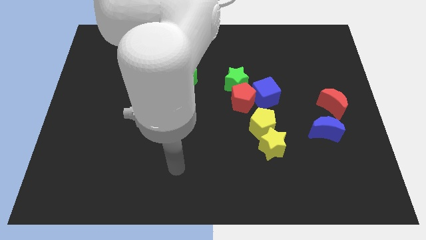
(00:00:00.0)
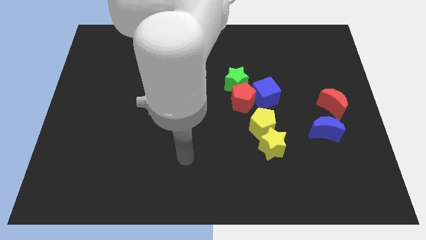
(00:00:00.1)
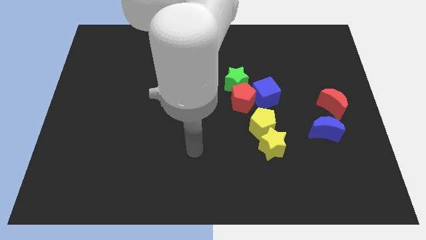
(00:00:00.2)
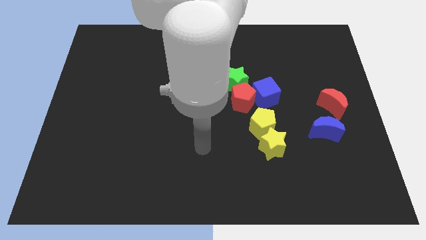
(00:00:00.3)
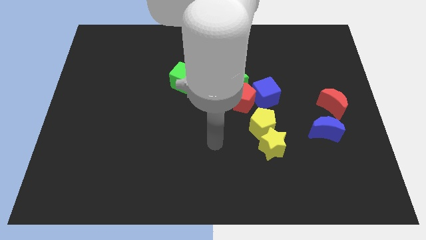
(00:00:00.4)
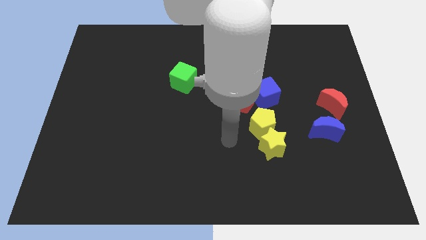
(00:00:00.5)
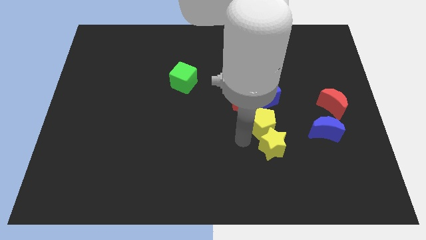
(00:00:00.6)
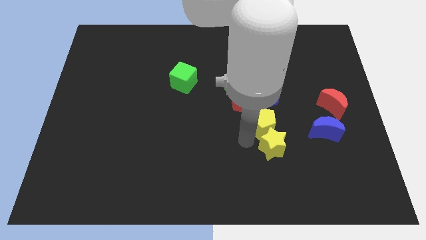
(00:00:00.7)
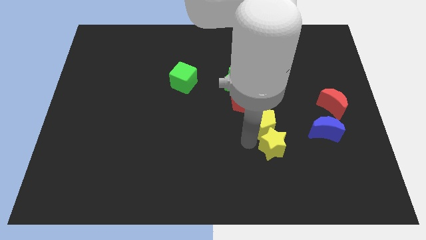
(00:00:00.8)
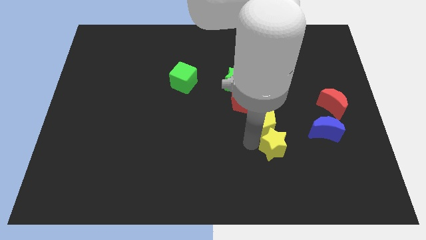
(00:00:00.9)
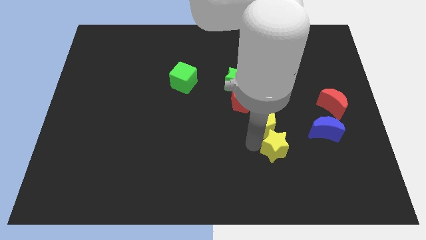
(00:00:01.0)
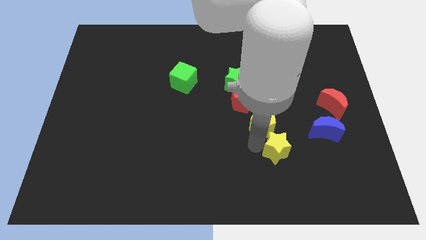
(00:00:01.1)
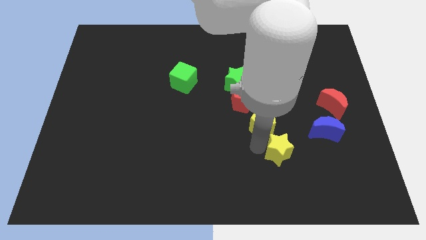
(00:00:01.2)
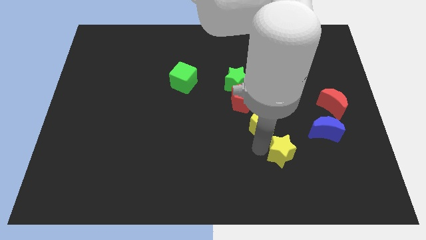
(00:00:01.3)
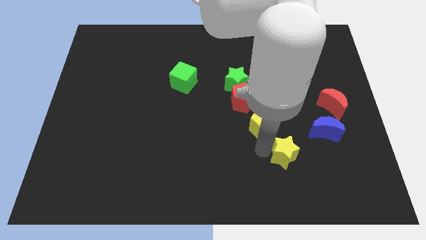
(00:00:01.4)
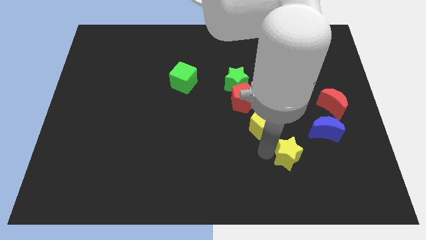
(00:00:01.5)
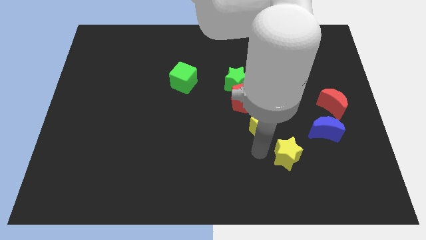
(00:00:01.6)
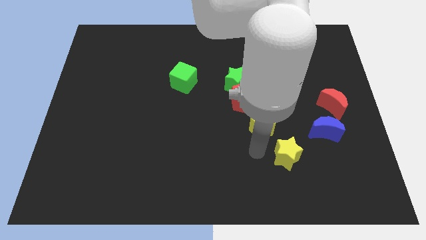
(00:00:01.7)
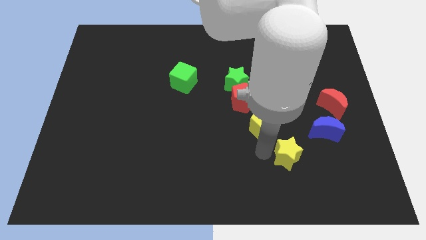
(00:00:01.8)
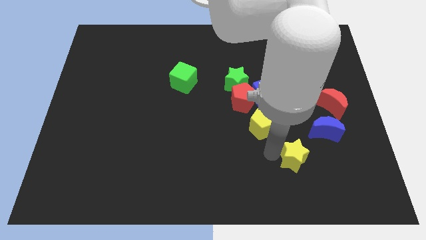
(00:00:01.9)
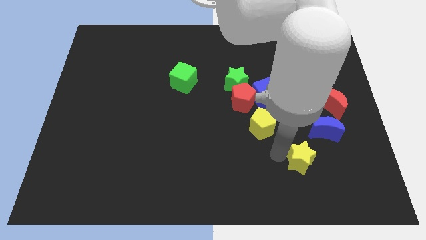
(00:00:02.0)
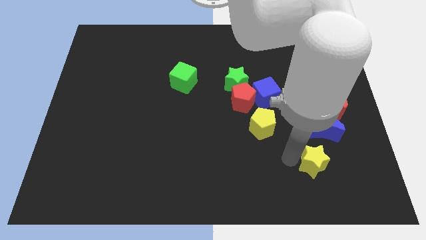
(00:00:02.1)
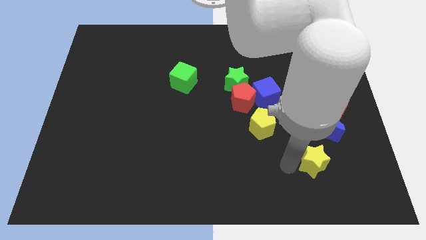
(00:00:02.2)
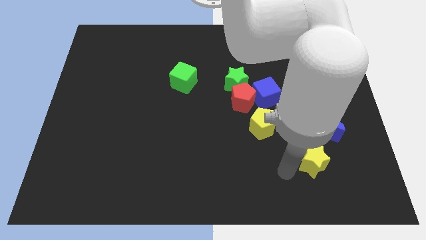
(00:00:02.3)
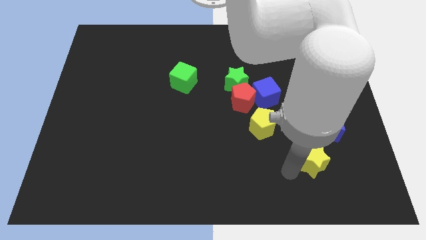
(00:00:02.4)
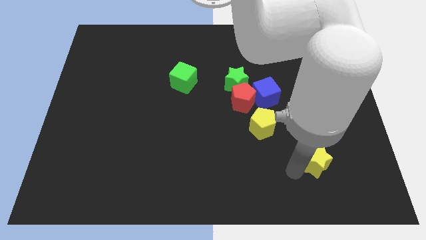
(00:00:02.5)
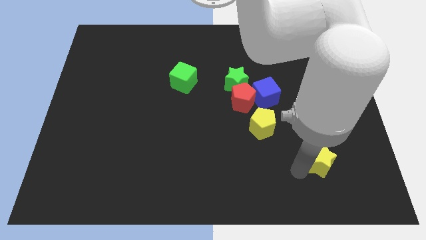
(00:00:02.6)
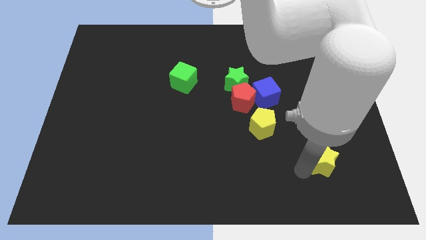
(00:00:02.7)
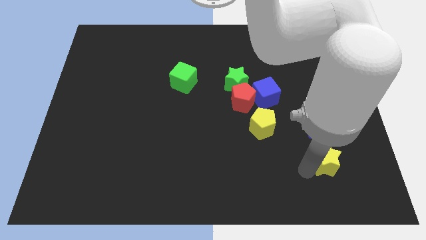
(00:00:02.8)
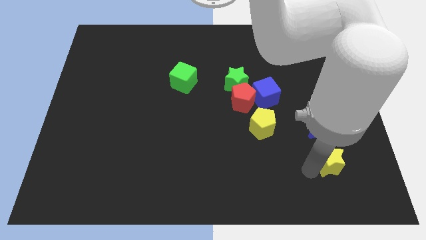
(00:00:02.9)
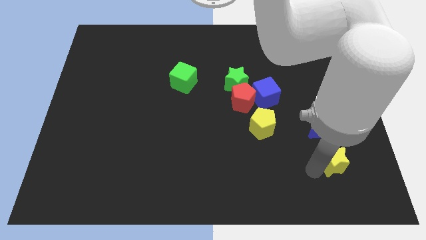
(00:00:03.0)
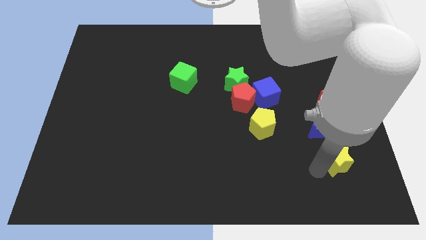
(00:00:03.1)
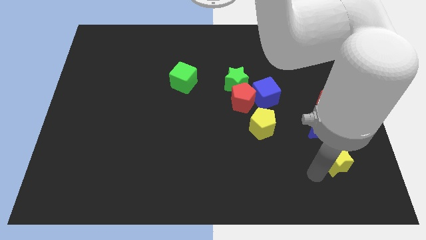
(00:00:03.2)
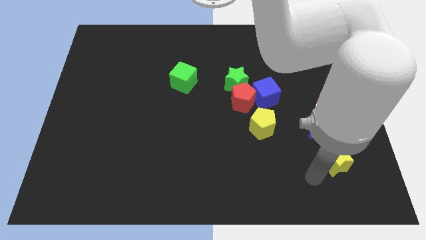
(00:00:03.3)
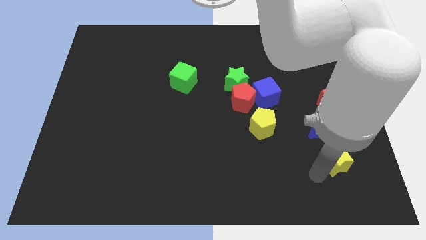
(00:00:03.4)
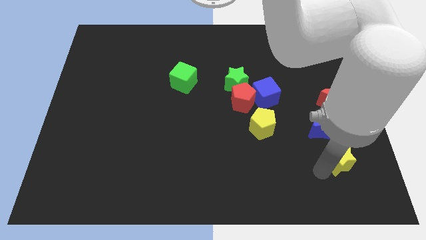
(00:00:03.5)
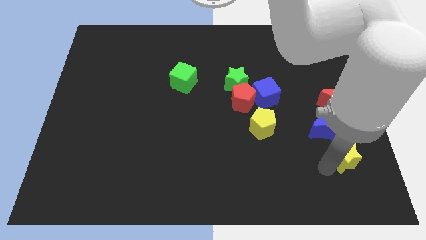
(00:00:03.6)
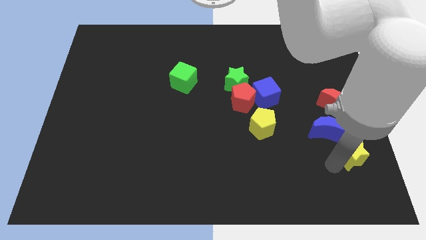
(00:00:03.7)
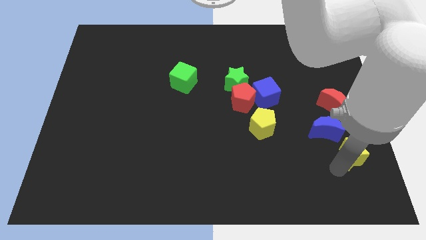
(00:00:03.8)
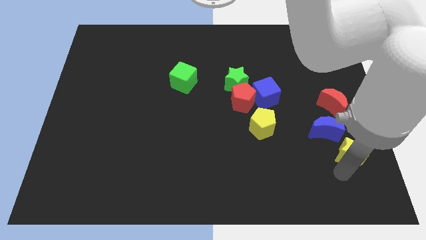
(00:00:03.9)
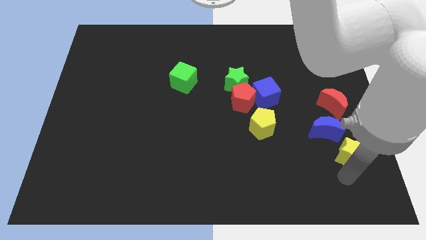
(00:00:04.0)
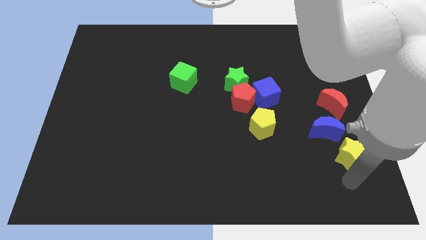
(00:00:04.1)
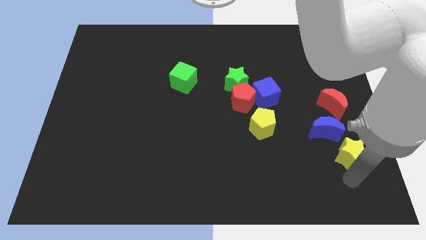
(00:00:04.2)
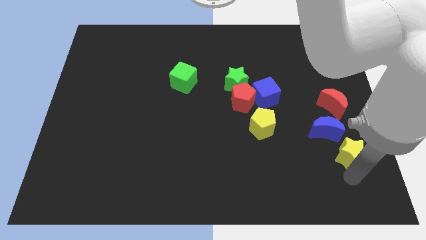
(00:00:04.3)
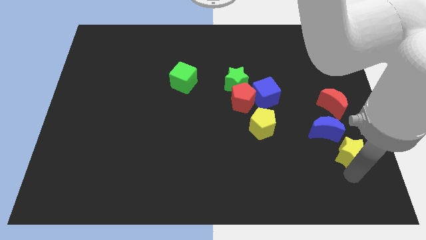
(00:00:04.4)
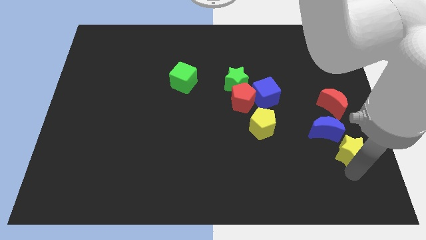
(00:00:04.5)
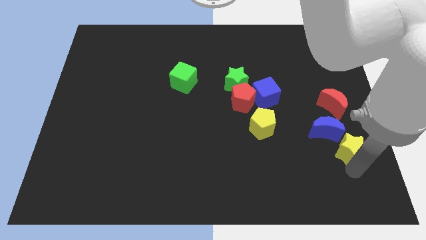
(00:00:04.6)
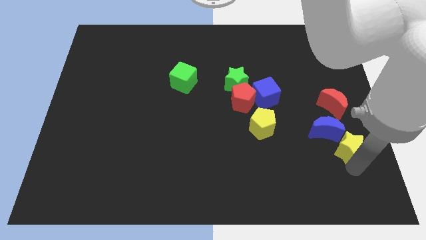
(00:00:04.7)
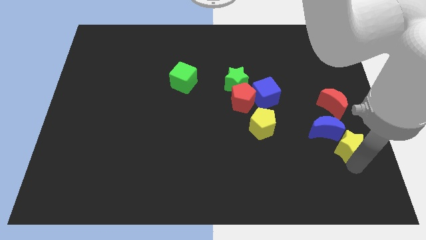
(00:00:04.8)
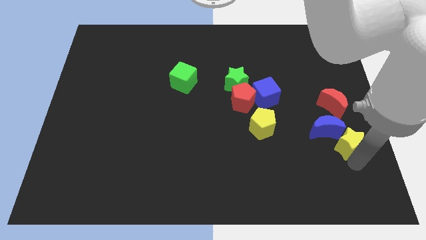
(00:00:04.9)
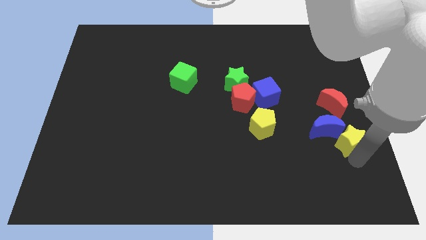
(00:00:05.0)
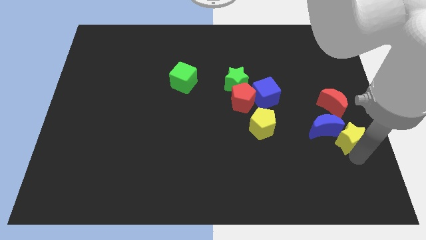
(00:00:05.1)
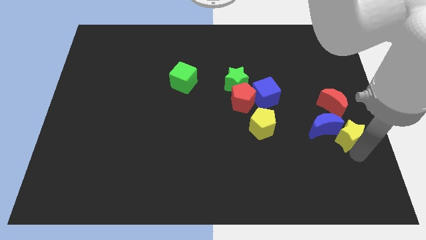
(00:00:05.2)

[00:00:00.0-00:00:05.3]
move the yellow star to the right side of the board
